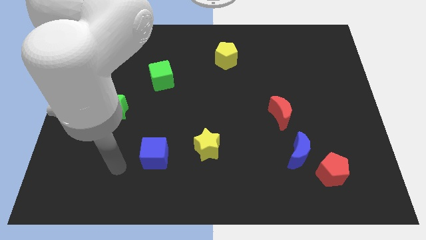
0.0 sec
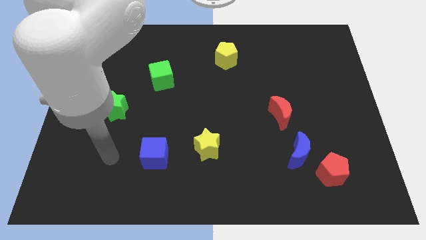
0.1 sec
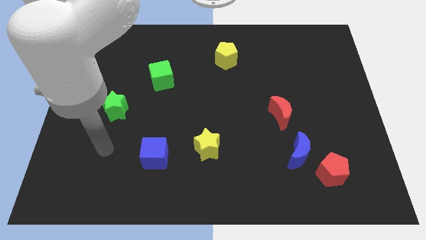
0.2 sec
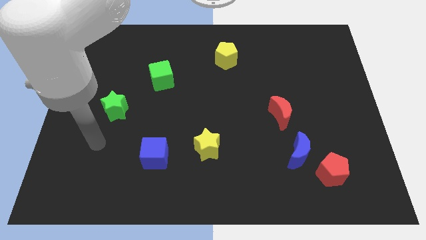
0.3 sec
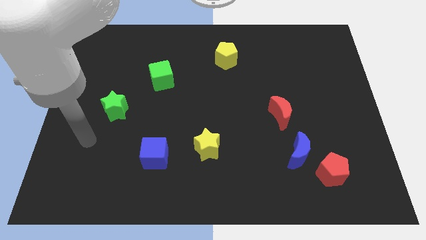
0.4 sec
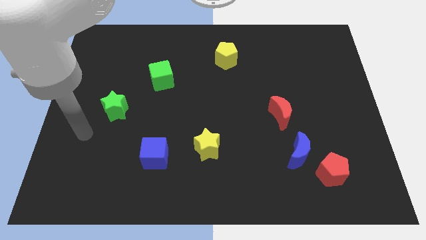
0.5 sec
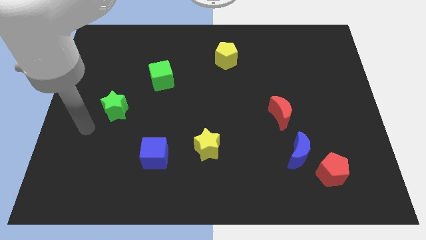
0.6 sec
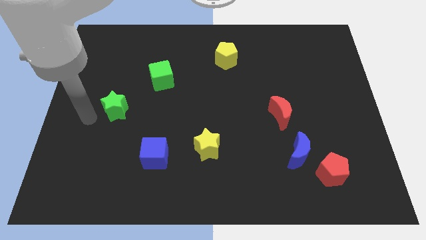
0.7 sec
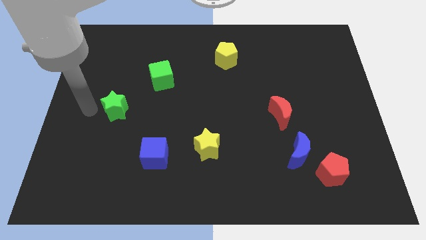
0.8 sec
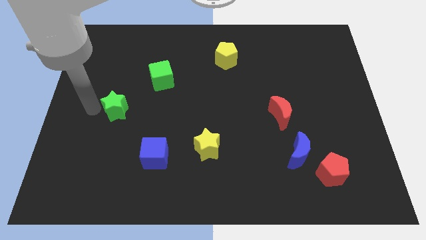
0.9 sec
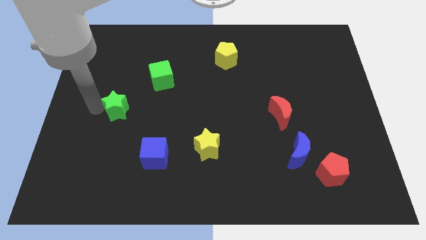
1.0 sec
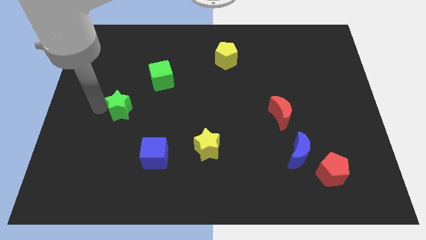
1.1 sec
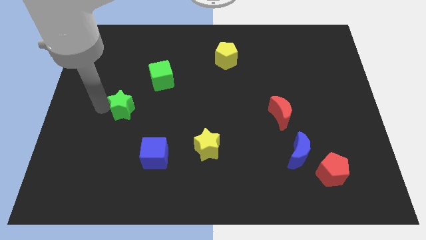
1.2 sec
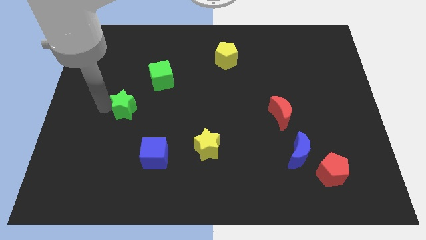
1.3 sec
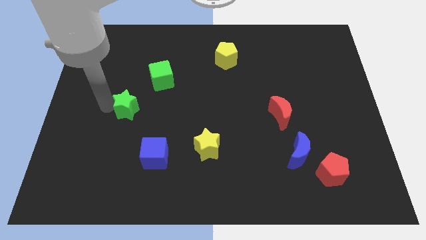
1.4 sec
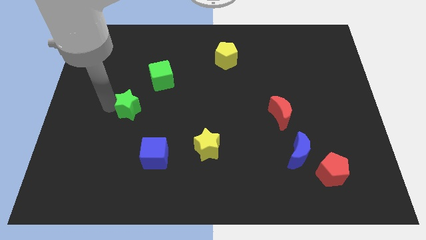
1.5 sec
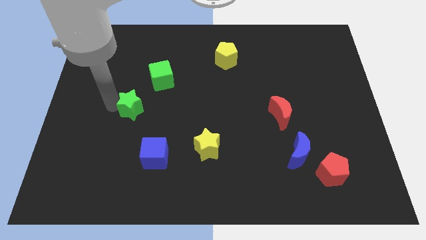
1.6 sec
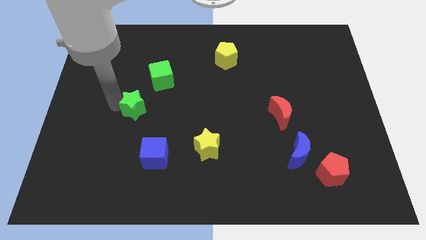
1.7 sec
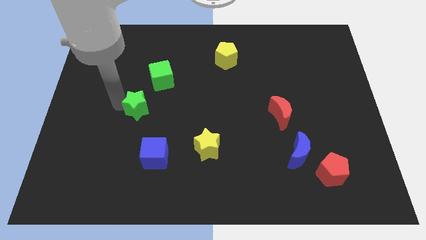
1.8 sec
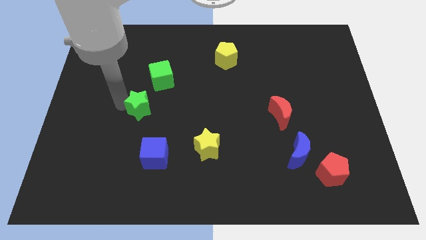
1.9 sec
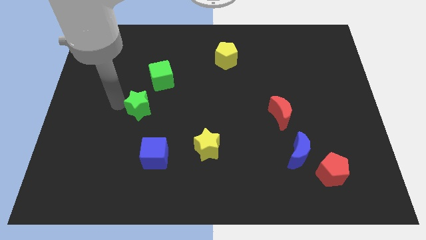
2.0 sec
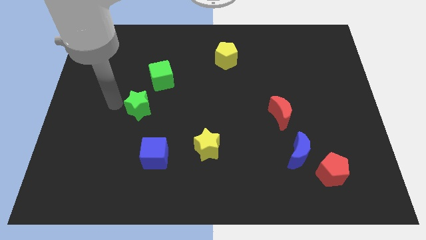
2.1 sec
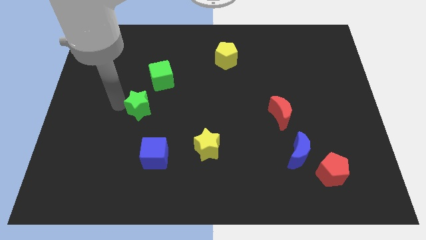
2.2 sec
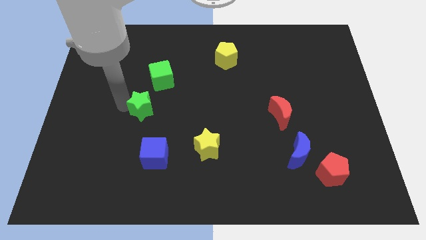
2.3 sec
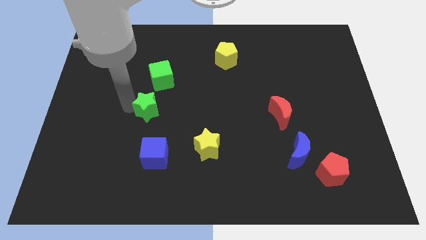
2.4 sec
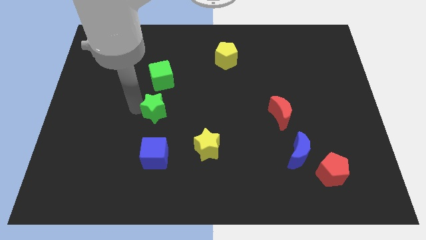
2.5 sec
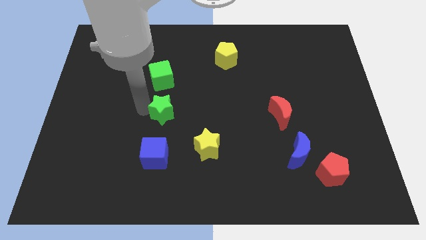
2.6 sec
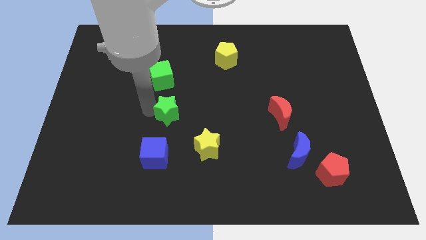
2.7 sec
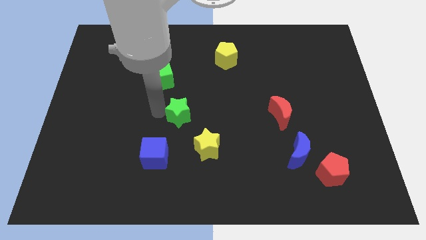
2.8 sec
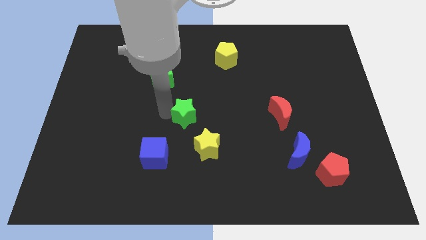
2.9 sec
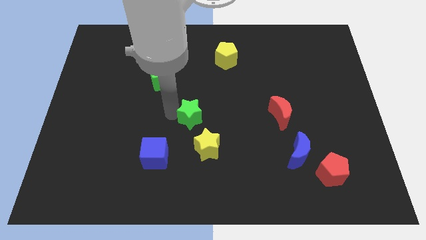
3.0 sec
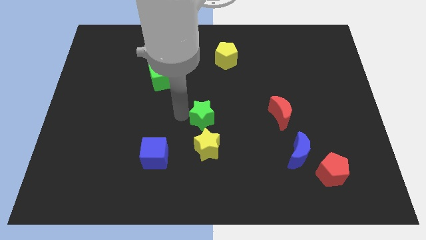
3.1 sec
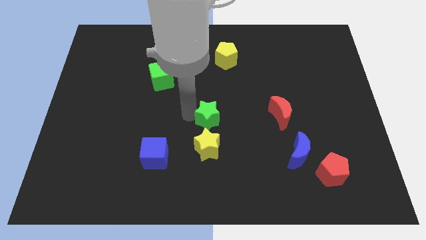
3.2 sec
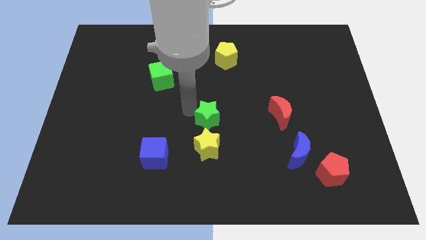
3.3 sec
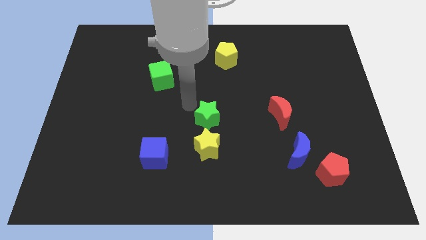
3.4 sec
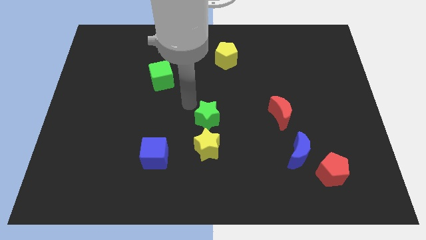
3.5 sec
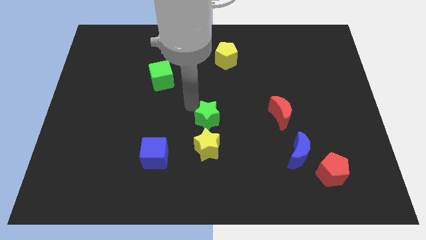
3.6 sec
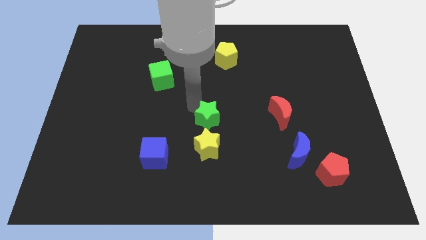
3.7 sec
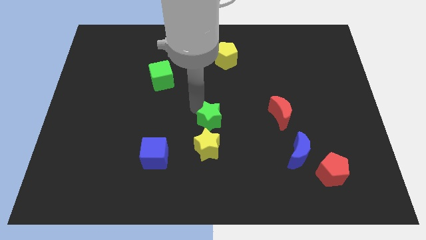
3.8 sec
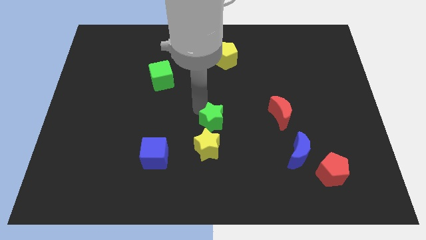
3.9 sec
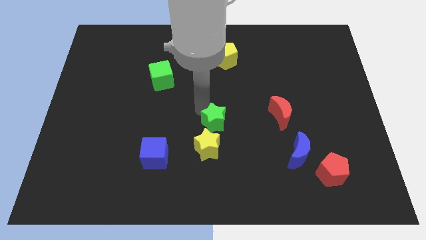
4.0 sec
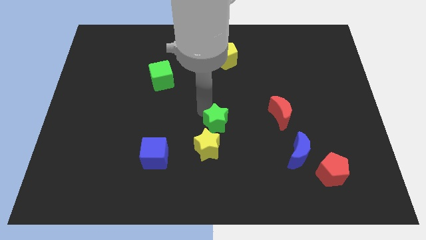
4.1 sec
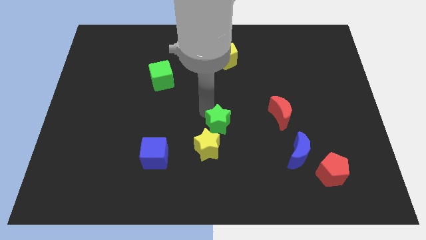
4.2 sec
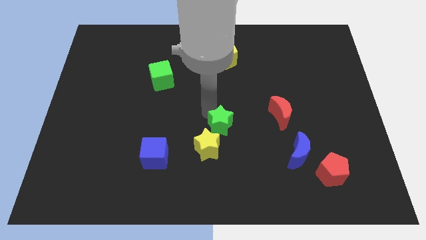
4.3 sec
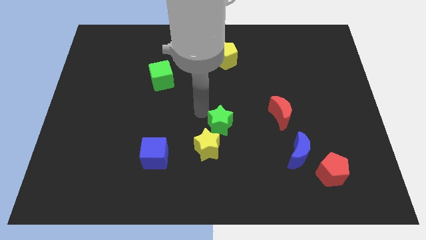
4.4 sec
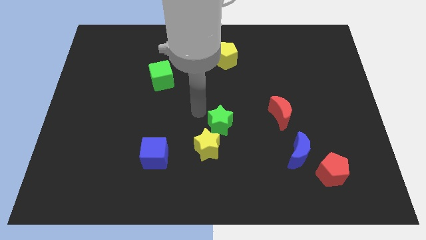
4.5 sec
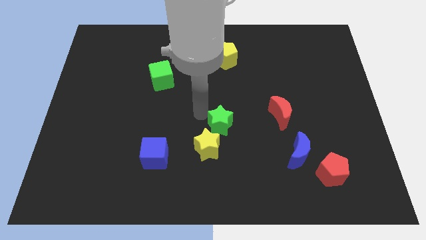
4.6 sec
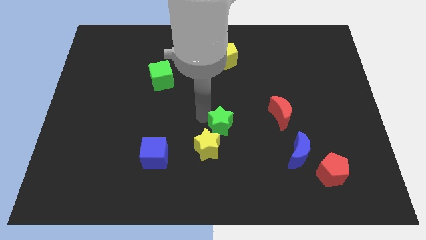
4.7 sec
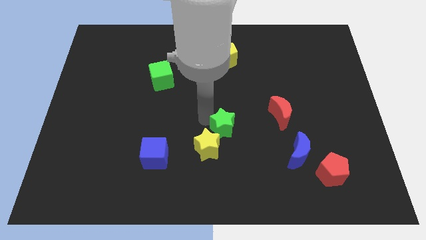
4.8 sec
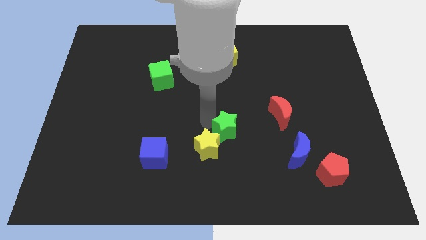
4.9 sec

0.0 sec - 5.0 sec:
put the green star to the right of the yellow star

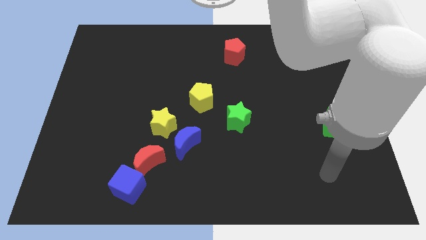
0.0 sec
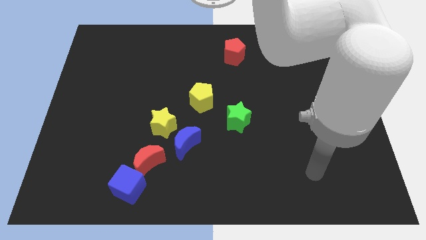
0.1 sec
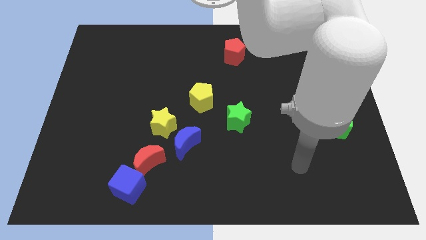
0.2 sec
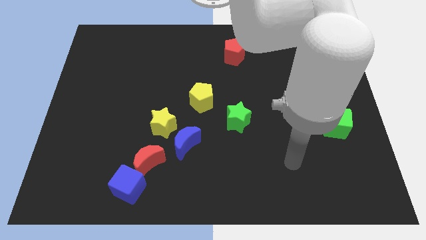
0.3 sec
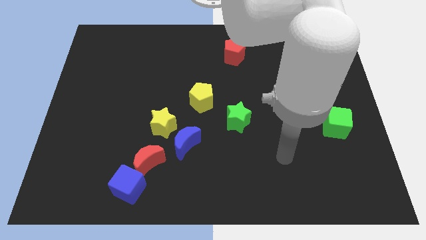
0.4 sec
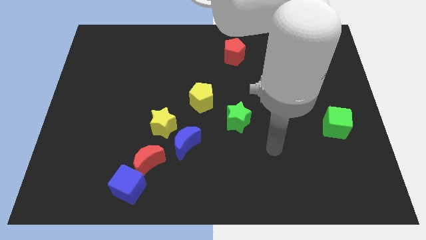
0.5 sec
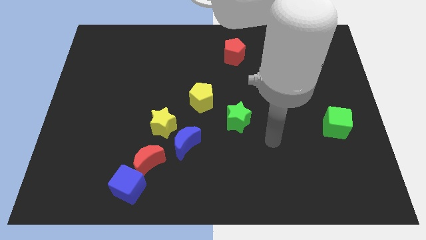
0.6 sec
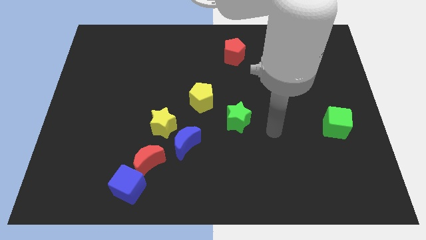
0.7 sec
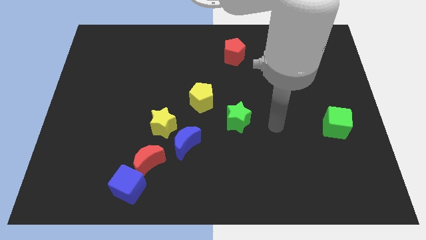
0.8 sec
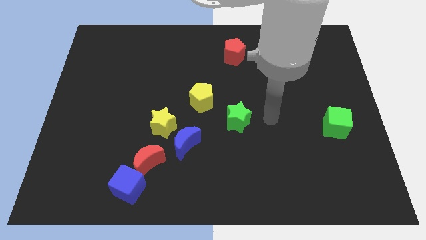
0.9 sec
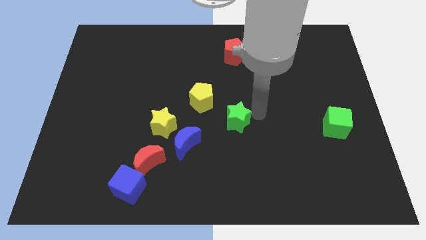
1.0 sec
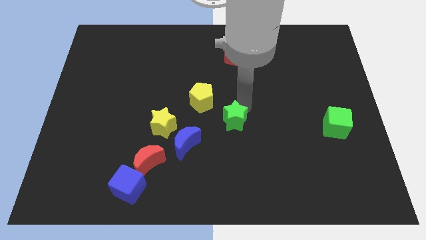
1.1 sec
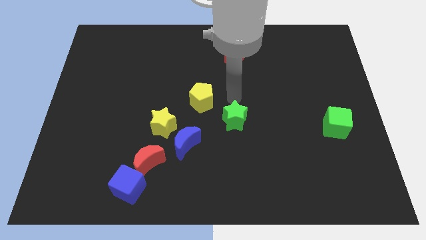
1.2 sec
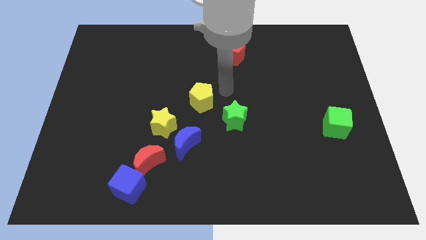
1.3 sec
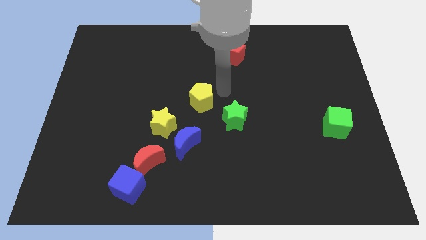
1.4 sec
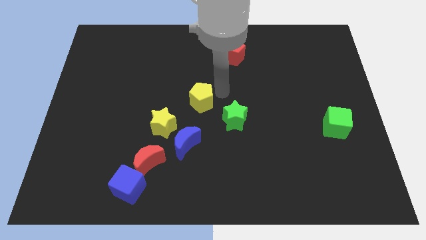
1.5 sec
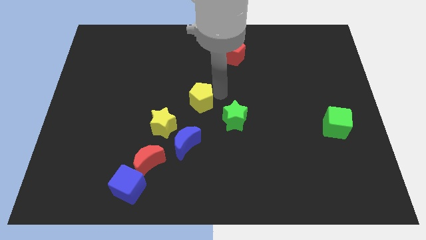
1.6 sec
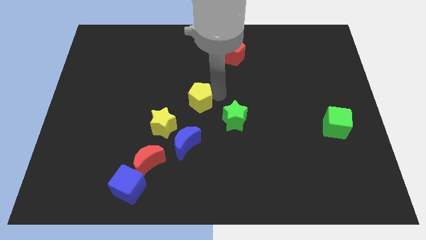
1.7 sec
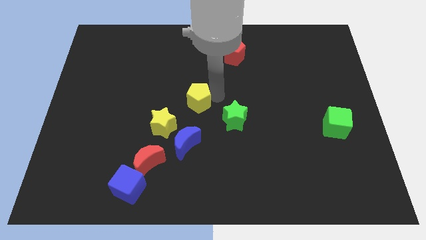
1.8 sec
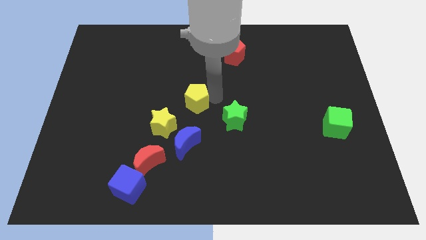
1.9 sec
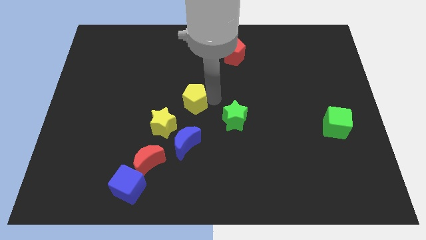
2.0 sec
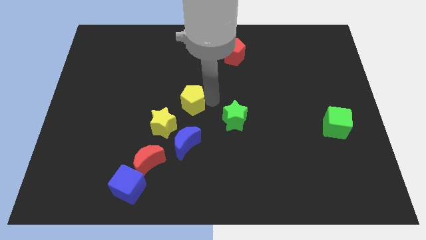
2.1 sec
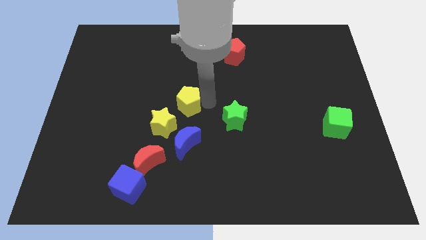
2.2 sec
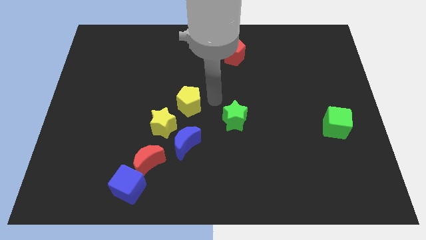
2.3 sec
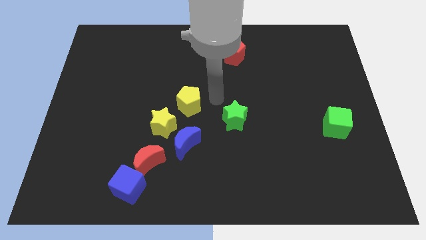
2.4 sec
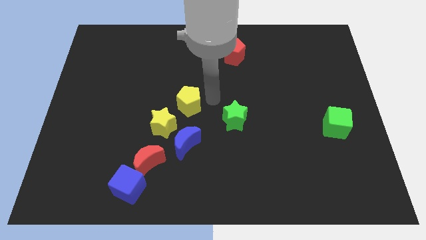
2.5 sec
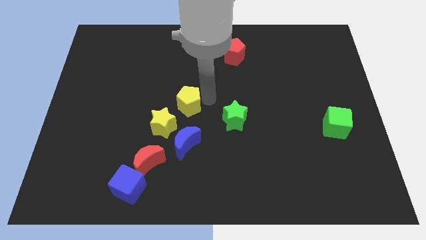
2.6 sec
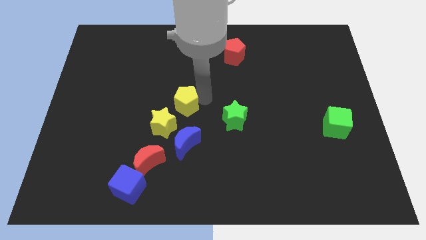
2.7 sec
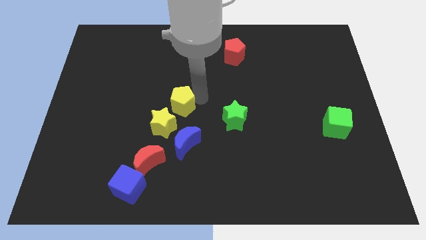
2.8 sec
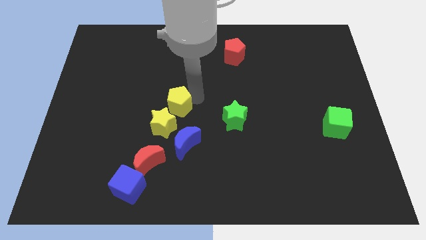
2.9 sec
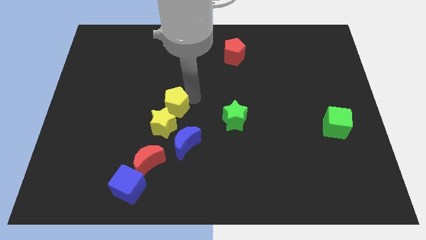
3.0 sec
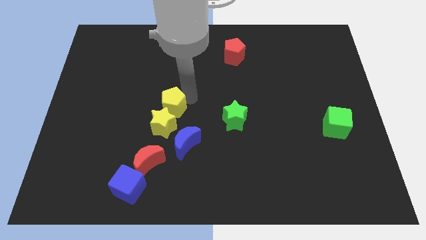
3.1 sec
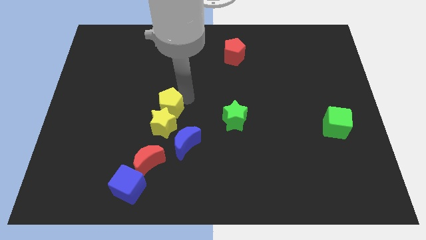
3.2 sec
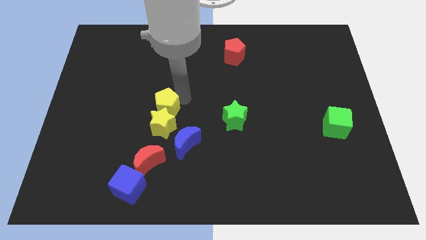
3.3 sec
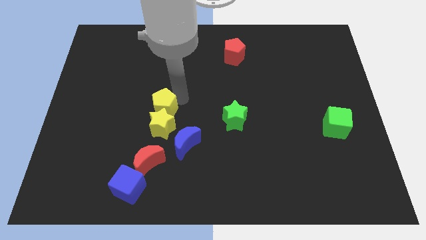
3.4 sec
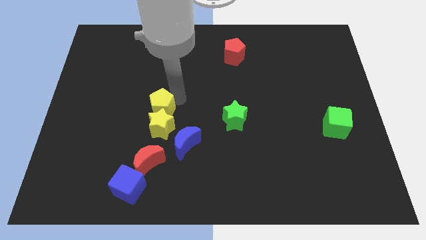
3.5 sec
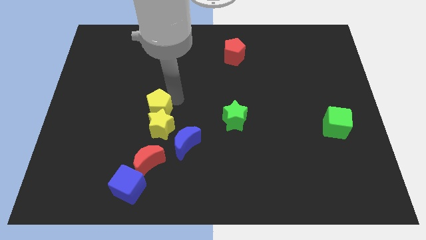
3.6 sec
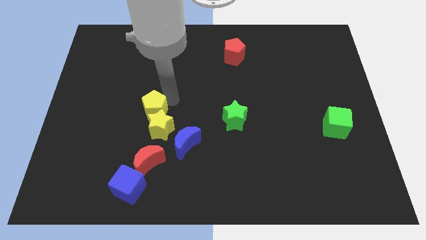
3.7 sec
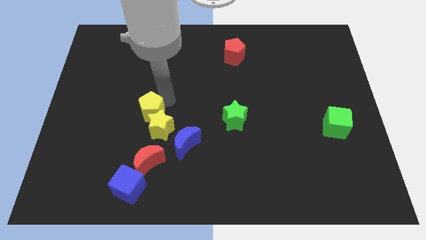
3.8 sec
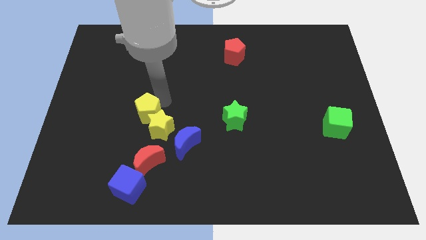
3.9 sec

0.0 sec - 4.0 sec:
move the yellow pentagon left of the yellow star
